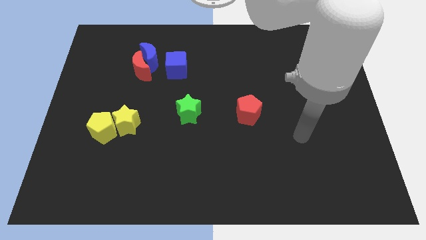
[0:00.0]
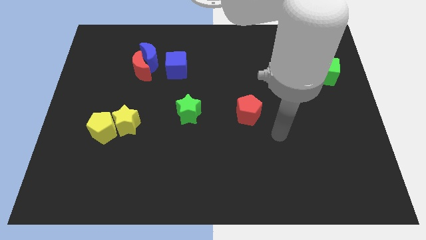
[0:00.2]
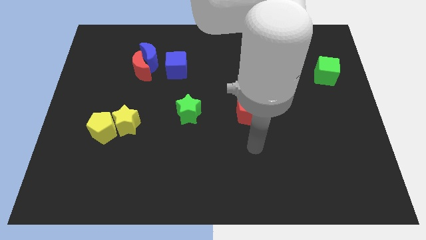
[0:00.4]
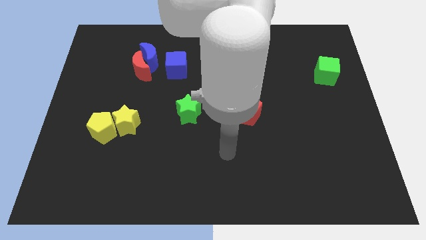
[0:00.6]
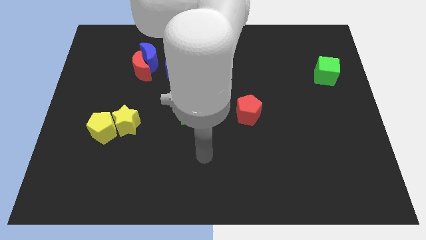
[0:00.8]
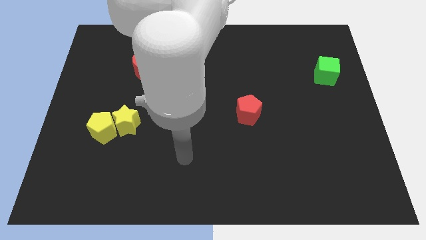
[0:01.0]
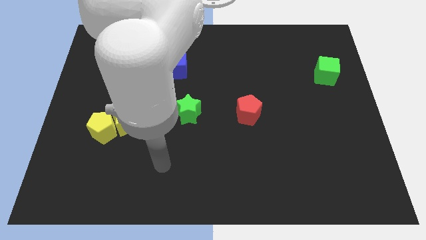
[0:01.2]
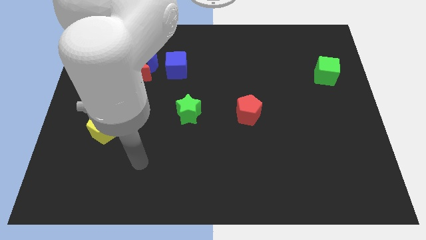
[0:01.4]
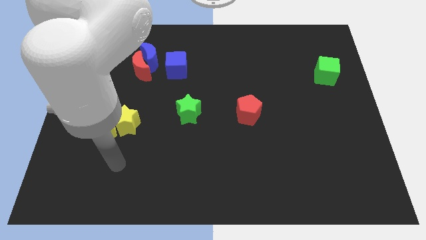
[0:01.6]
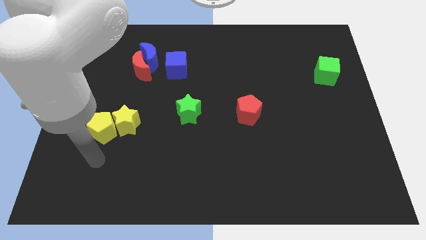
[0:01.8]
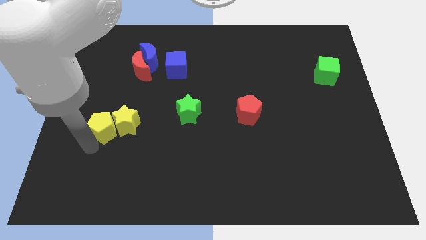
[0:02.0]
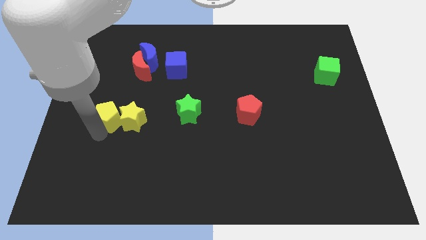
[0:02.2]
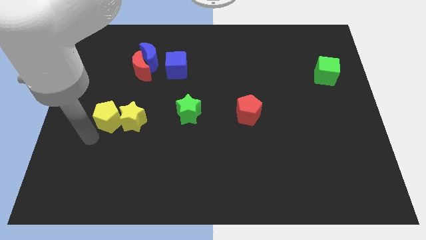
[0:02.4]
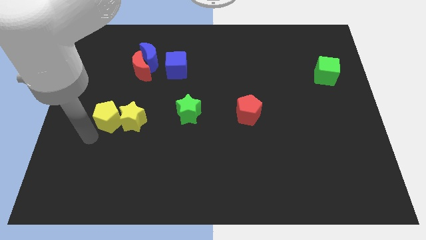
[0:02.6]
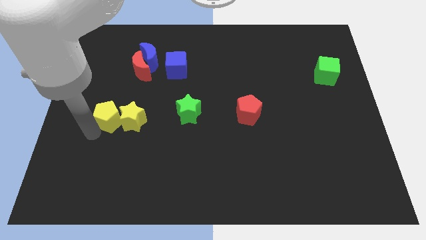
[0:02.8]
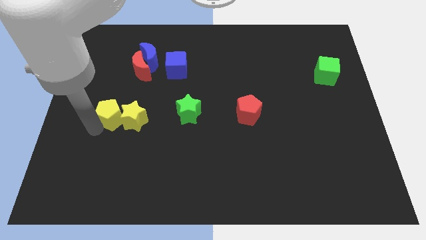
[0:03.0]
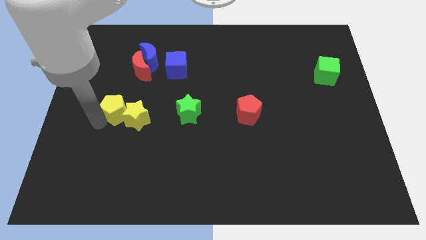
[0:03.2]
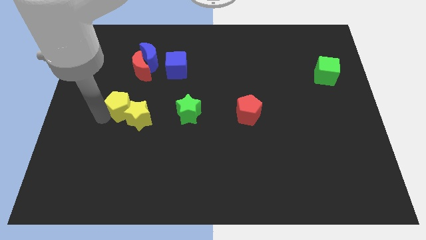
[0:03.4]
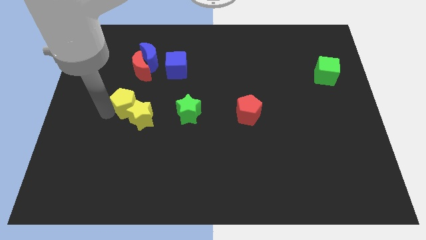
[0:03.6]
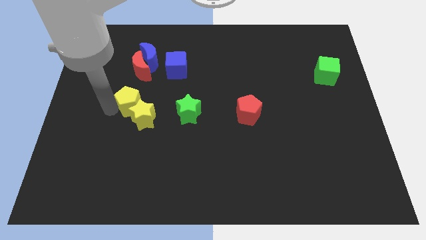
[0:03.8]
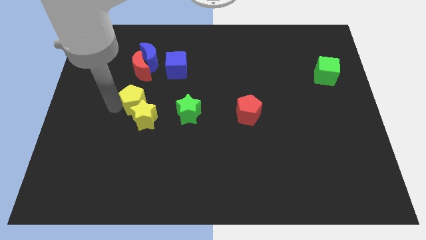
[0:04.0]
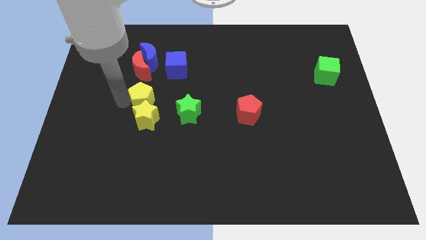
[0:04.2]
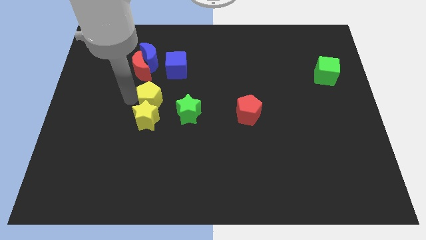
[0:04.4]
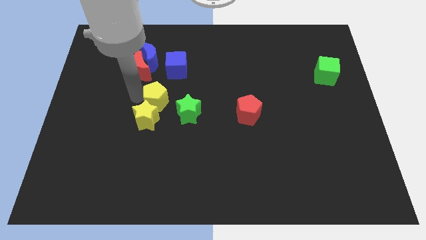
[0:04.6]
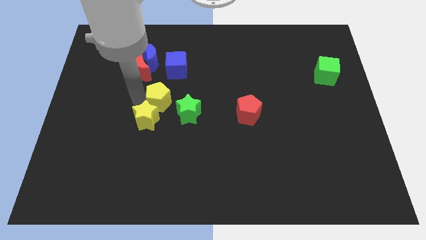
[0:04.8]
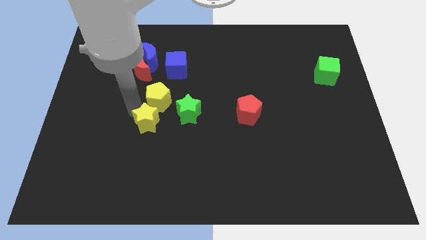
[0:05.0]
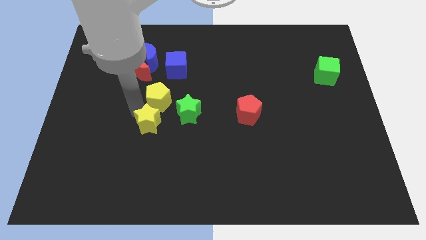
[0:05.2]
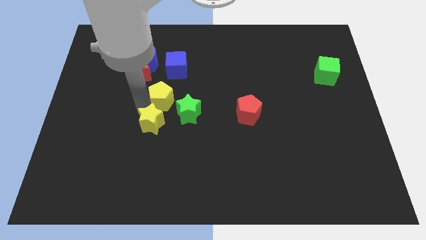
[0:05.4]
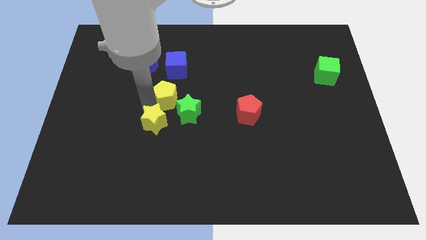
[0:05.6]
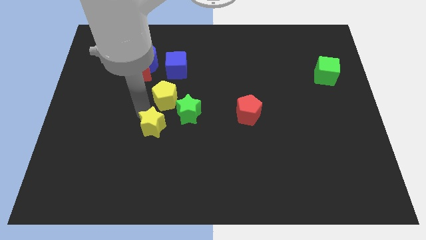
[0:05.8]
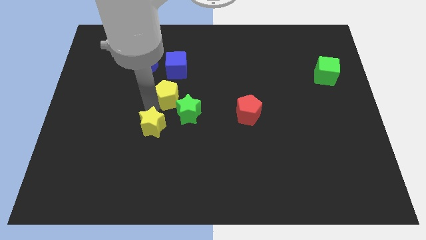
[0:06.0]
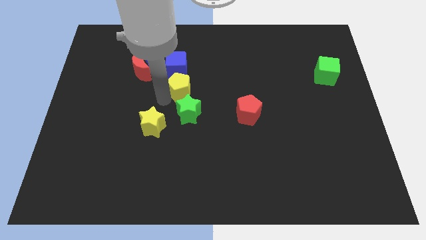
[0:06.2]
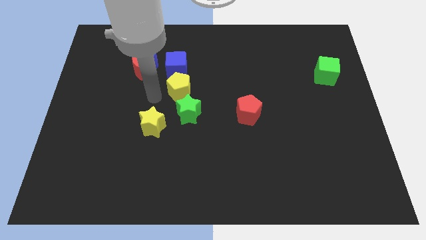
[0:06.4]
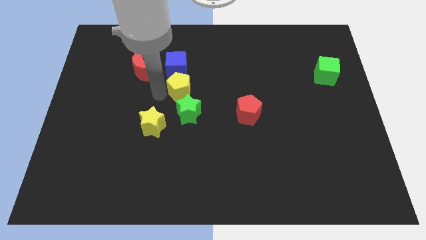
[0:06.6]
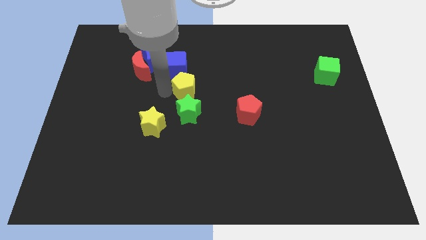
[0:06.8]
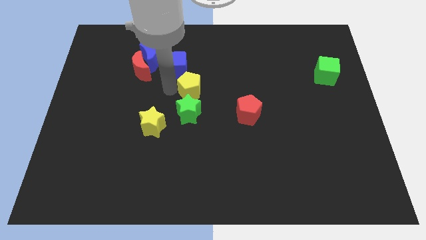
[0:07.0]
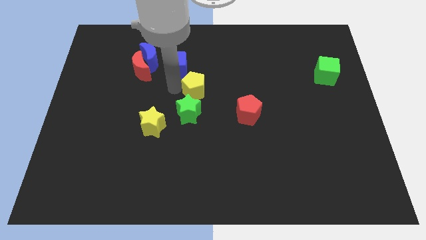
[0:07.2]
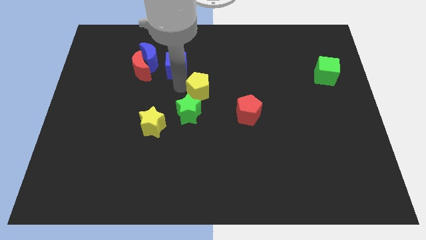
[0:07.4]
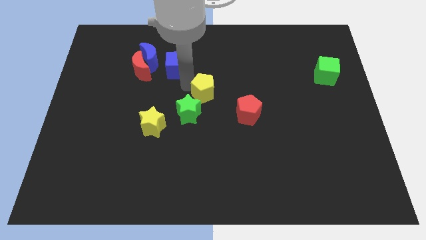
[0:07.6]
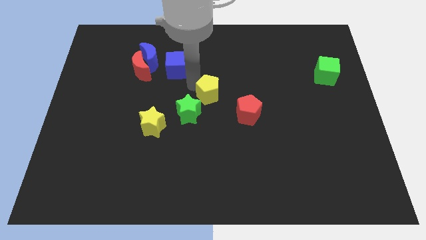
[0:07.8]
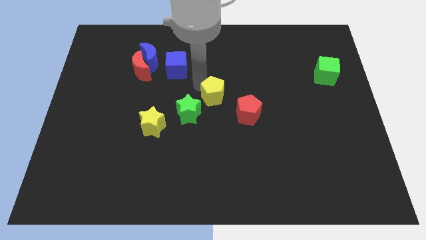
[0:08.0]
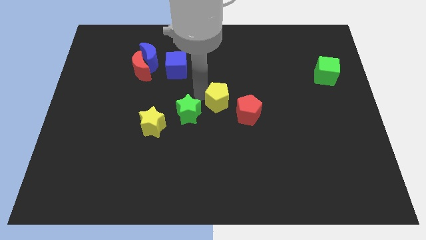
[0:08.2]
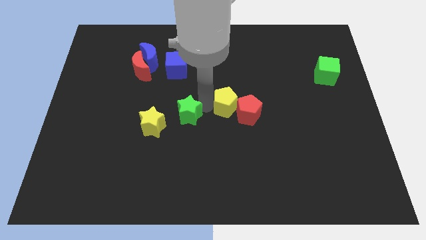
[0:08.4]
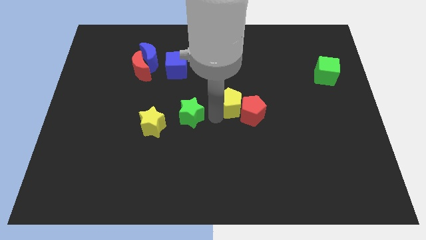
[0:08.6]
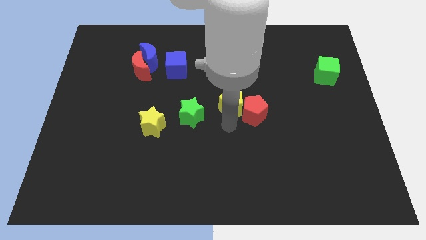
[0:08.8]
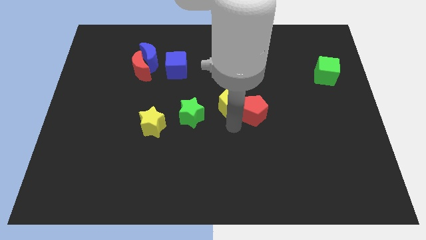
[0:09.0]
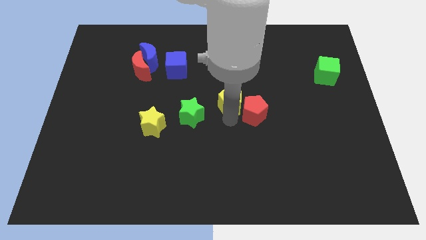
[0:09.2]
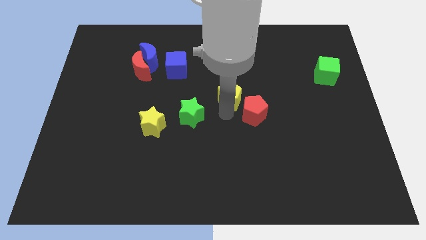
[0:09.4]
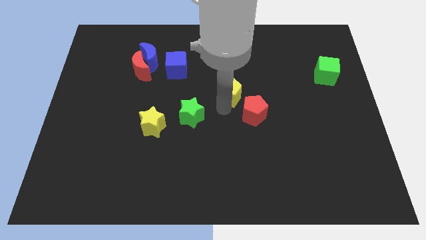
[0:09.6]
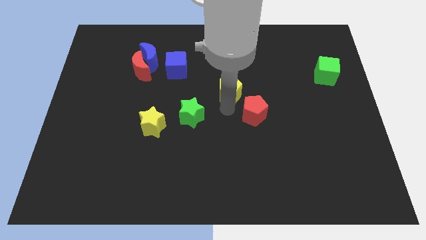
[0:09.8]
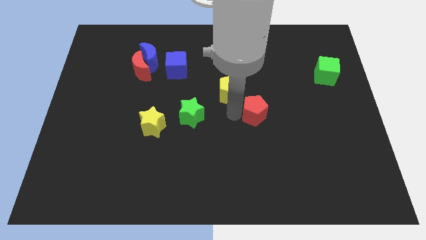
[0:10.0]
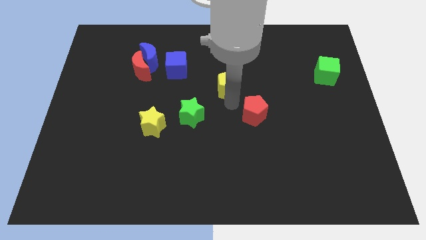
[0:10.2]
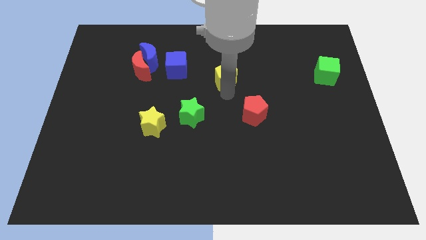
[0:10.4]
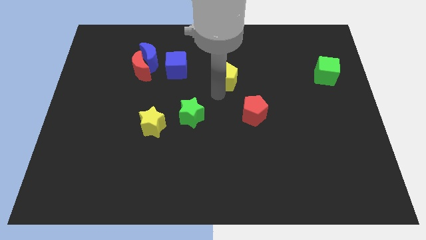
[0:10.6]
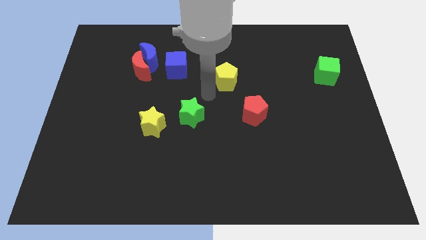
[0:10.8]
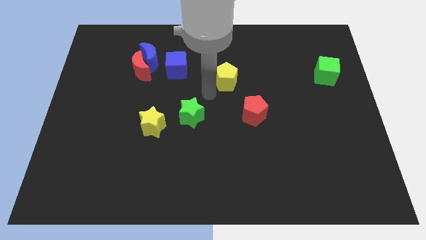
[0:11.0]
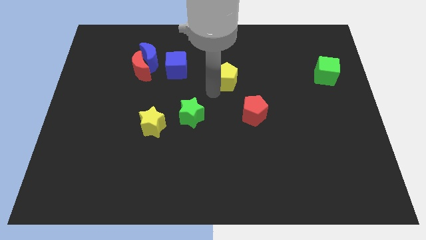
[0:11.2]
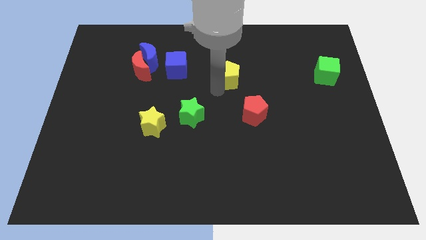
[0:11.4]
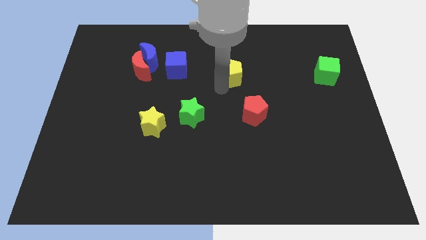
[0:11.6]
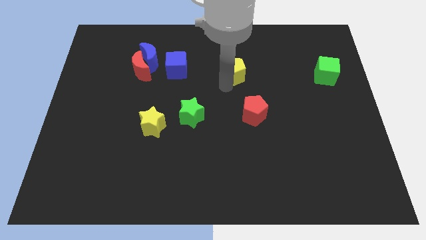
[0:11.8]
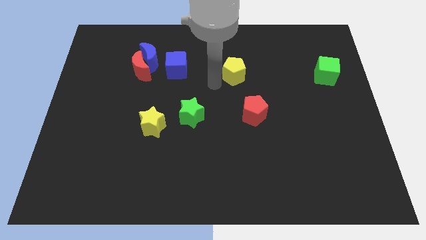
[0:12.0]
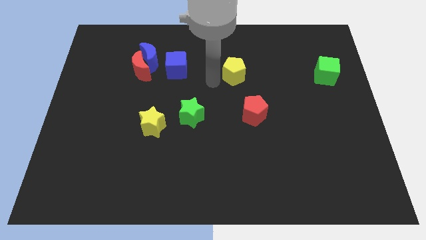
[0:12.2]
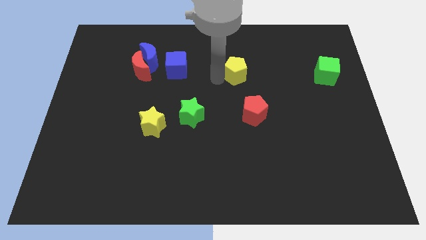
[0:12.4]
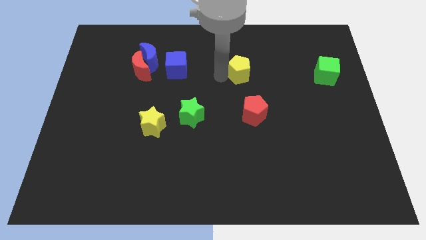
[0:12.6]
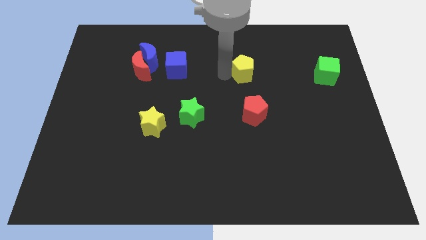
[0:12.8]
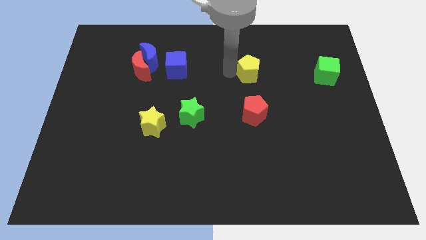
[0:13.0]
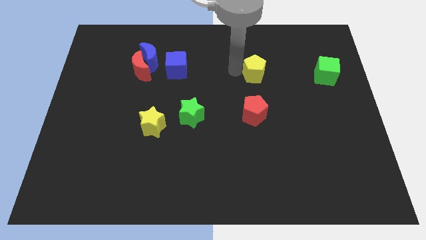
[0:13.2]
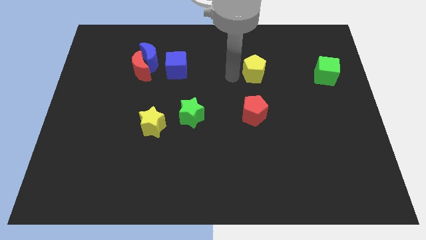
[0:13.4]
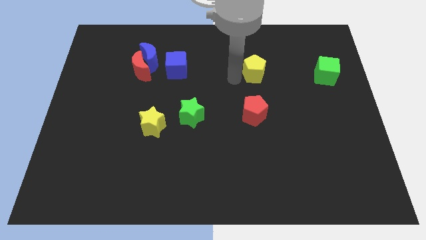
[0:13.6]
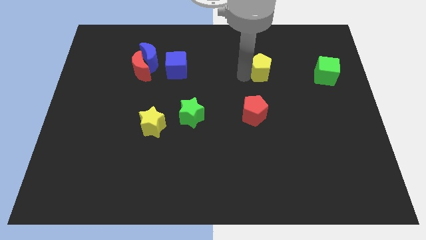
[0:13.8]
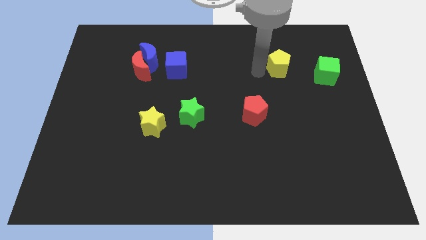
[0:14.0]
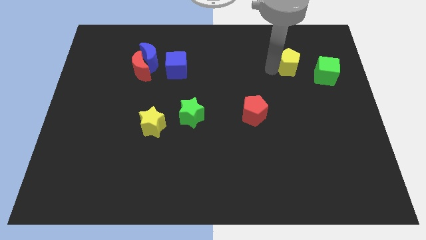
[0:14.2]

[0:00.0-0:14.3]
put the yellow pentagon to the top left side of the green cube
